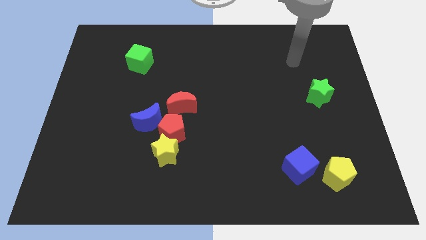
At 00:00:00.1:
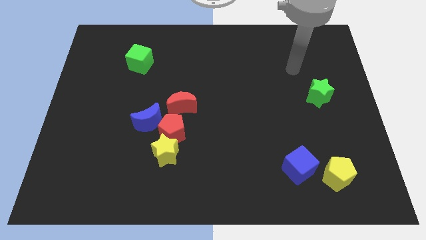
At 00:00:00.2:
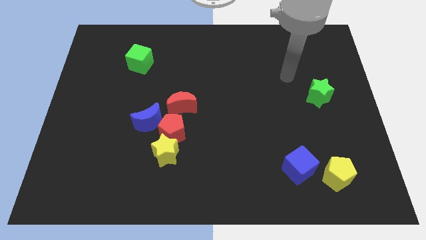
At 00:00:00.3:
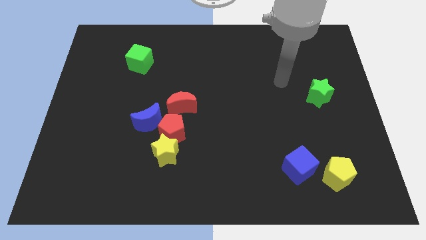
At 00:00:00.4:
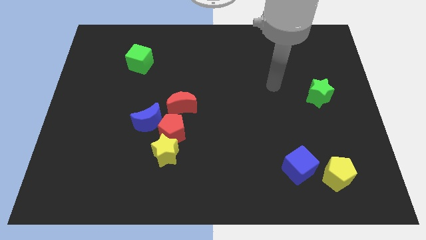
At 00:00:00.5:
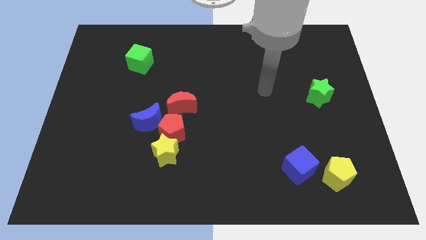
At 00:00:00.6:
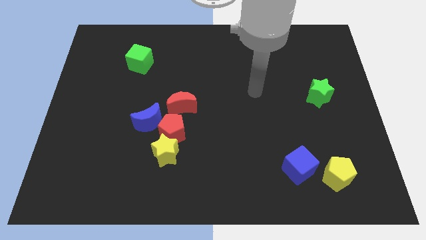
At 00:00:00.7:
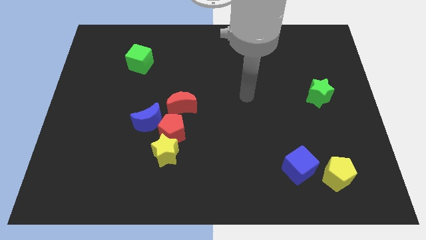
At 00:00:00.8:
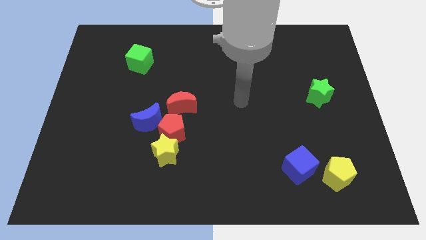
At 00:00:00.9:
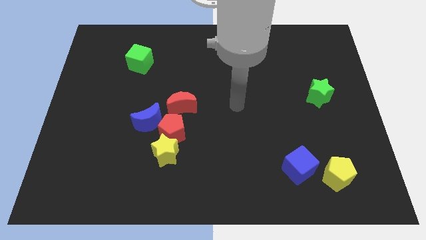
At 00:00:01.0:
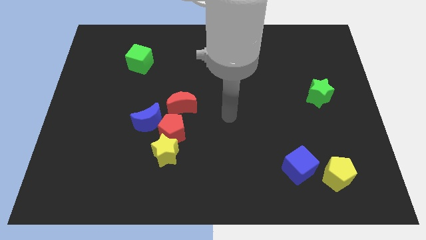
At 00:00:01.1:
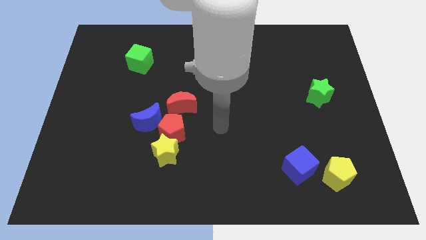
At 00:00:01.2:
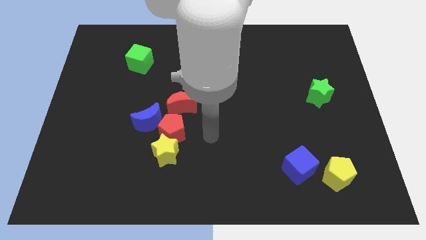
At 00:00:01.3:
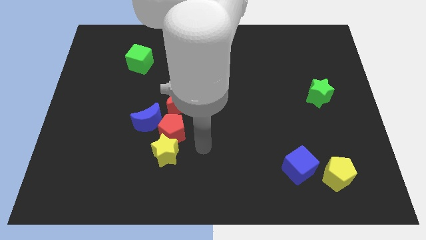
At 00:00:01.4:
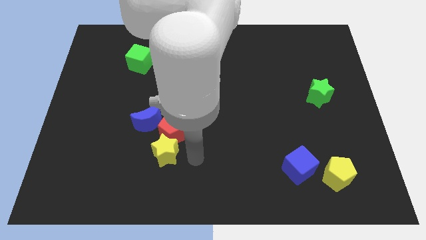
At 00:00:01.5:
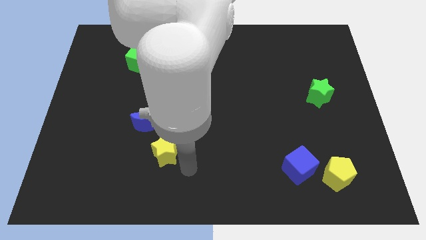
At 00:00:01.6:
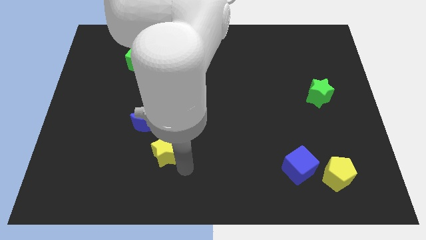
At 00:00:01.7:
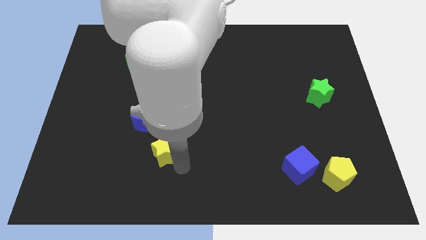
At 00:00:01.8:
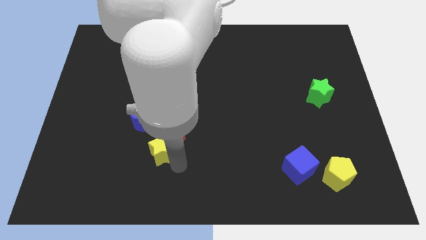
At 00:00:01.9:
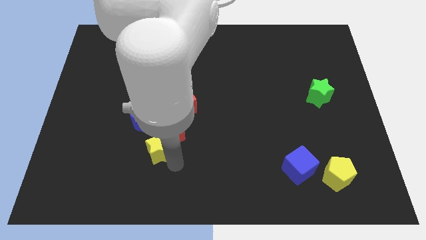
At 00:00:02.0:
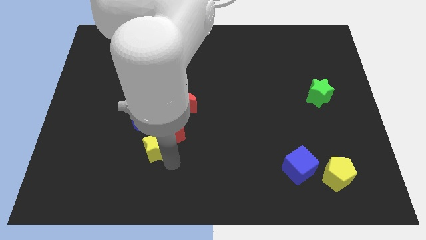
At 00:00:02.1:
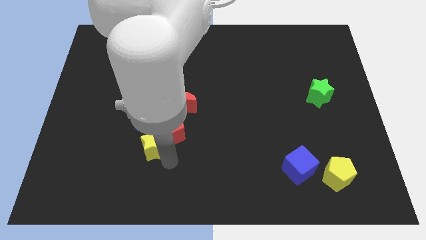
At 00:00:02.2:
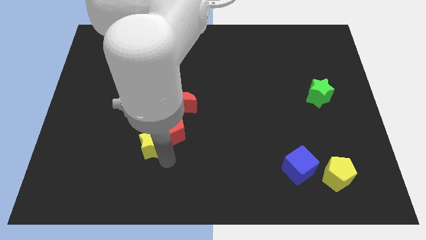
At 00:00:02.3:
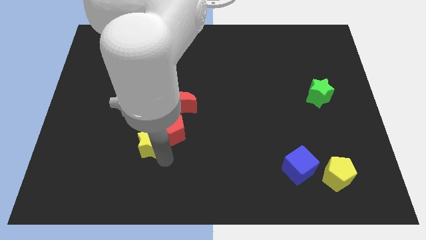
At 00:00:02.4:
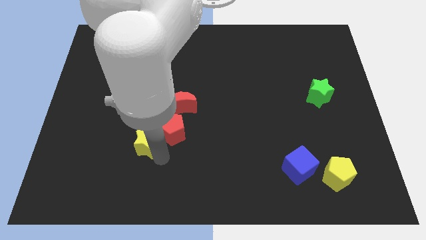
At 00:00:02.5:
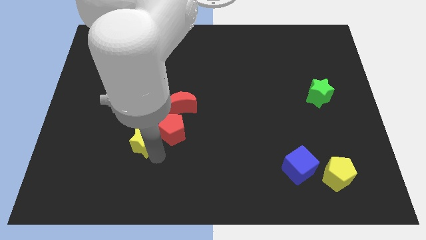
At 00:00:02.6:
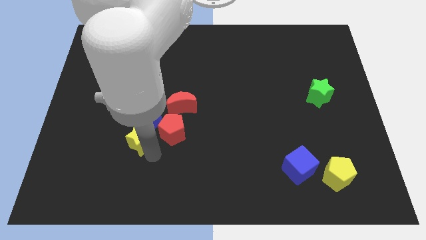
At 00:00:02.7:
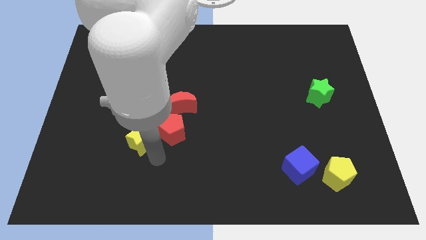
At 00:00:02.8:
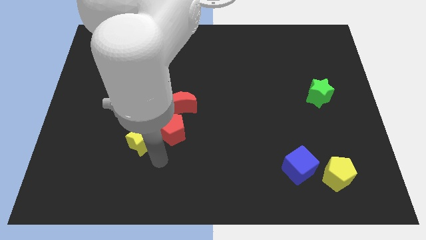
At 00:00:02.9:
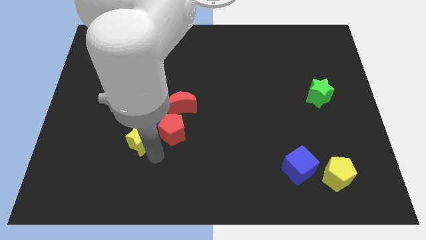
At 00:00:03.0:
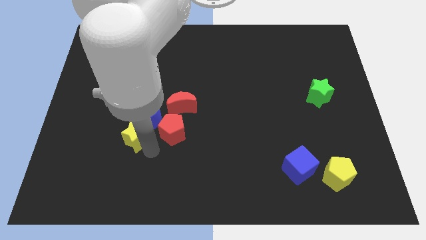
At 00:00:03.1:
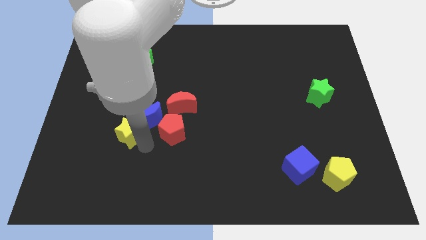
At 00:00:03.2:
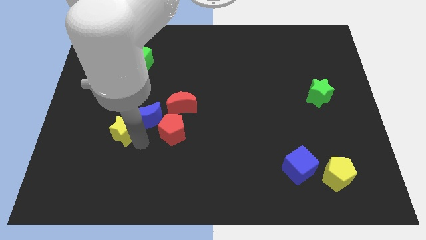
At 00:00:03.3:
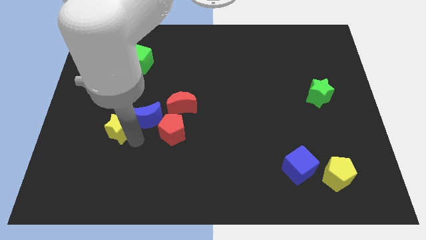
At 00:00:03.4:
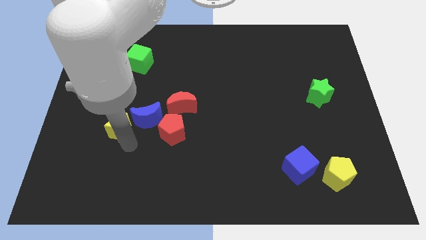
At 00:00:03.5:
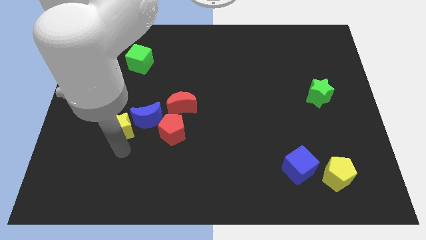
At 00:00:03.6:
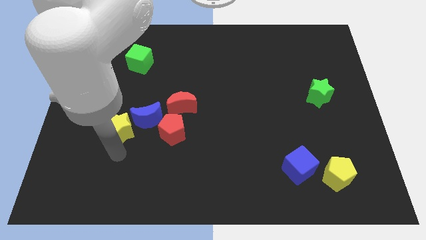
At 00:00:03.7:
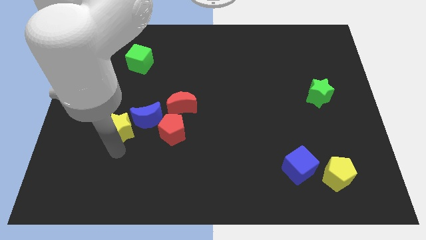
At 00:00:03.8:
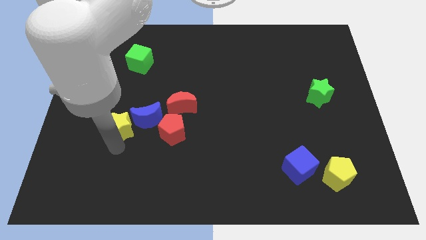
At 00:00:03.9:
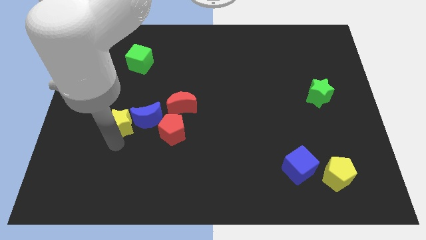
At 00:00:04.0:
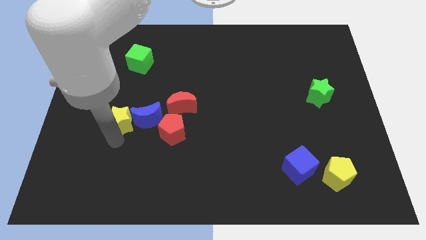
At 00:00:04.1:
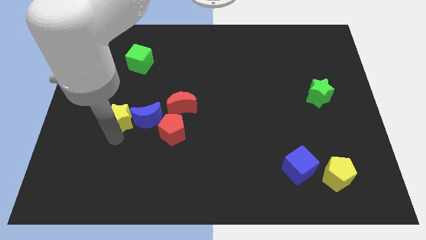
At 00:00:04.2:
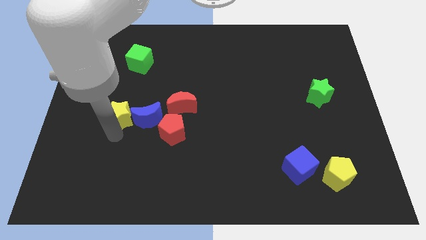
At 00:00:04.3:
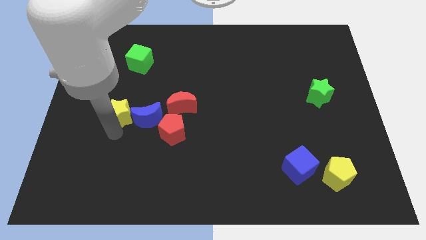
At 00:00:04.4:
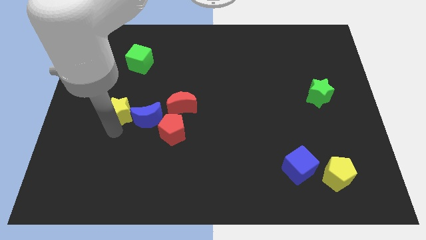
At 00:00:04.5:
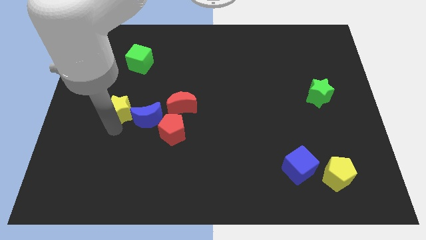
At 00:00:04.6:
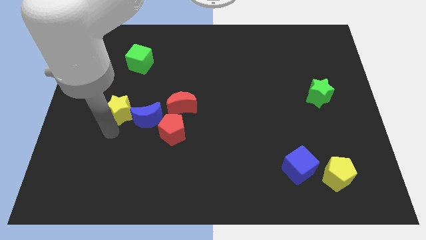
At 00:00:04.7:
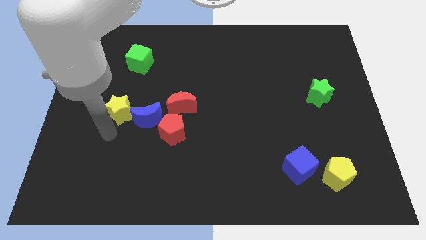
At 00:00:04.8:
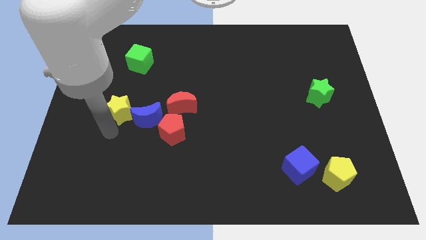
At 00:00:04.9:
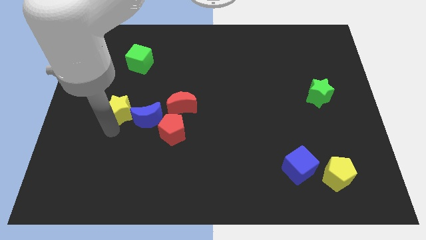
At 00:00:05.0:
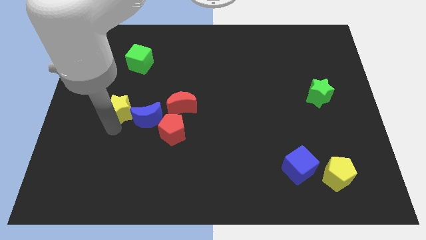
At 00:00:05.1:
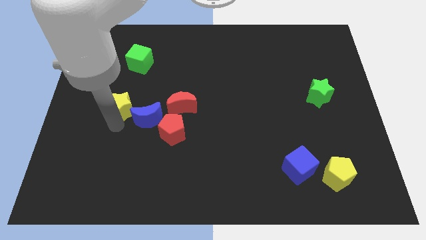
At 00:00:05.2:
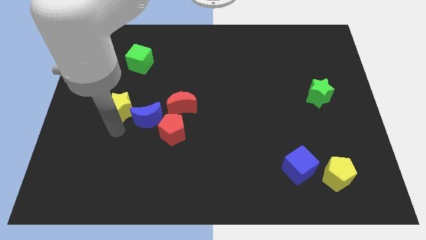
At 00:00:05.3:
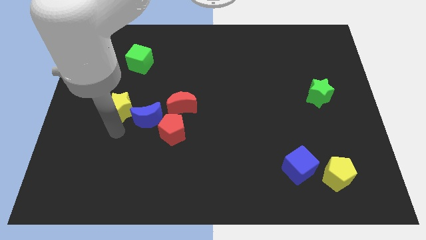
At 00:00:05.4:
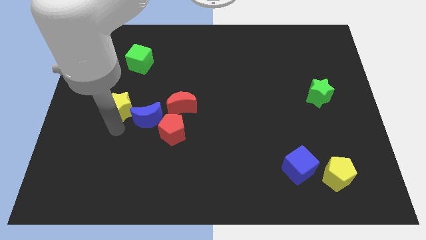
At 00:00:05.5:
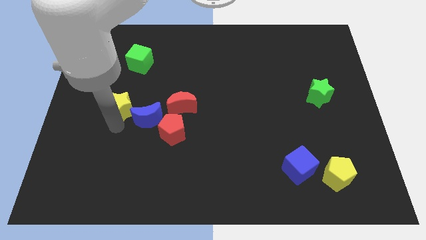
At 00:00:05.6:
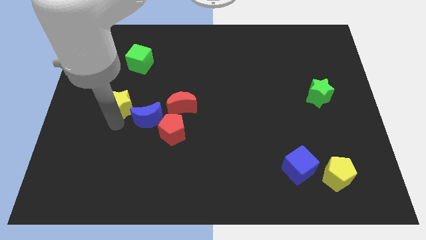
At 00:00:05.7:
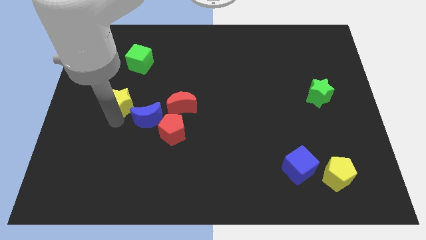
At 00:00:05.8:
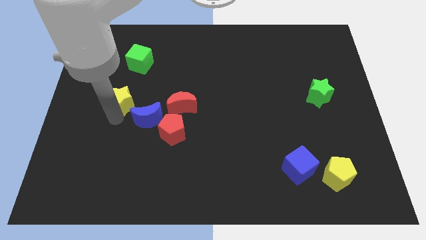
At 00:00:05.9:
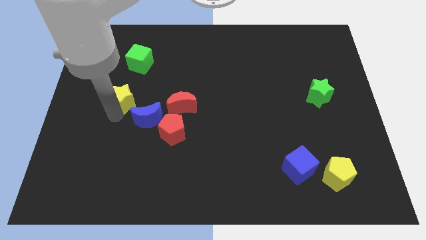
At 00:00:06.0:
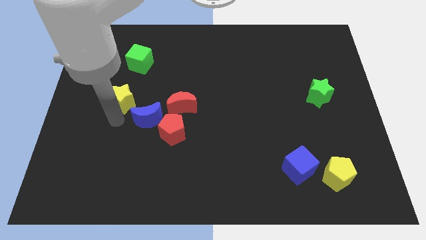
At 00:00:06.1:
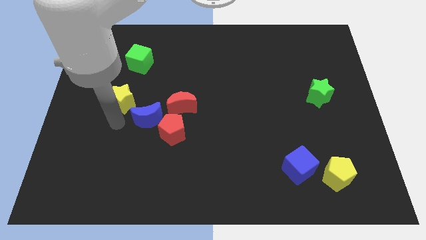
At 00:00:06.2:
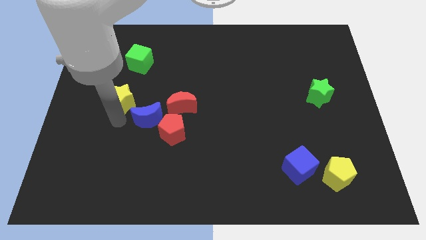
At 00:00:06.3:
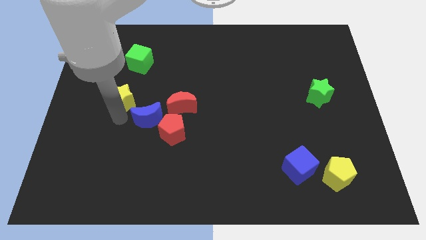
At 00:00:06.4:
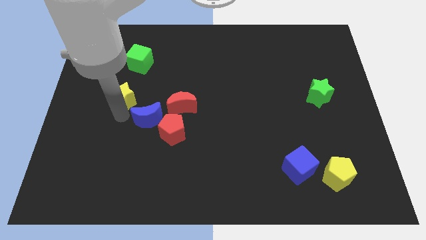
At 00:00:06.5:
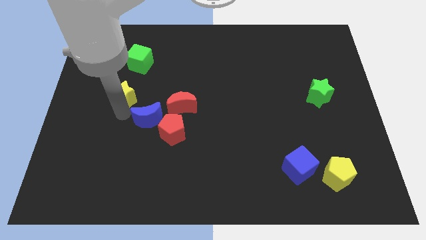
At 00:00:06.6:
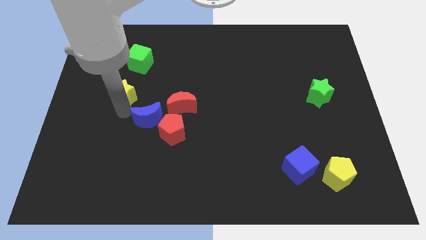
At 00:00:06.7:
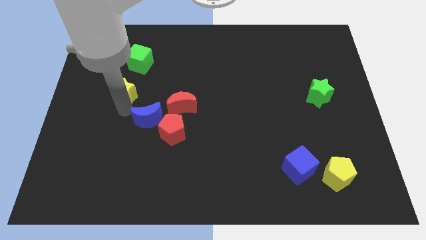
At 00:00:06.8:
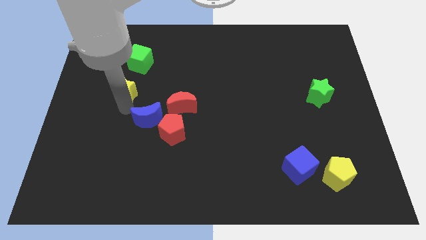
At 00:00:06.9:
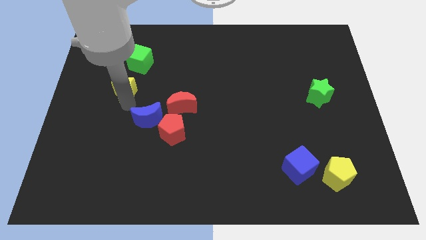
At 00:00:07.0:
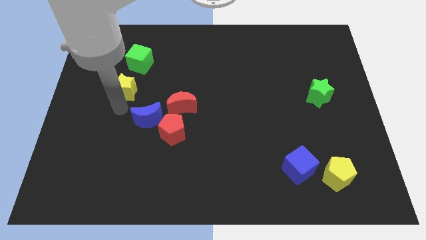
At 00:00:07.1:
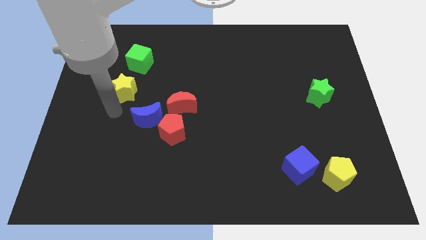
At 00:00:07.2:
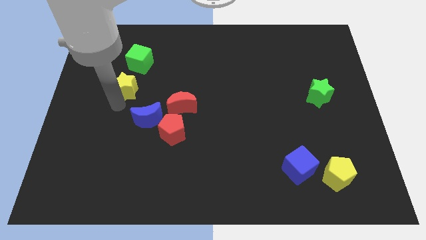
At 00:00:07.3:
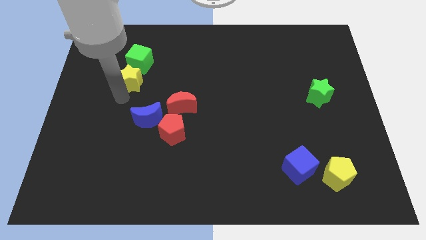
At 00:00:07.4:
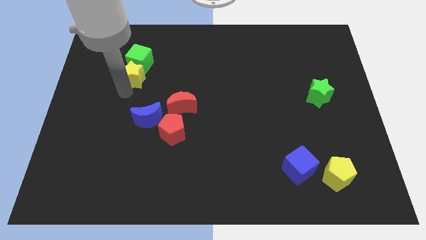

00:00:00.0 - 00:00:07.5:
put the yellow star towards the green cube
